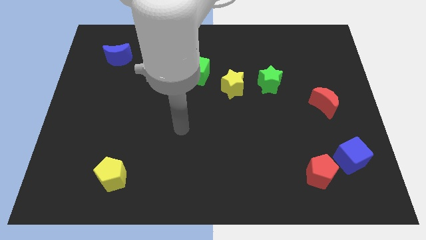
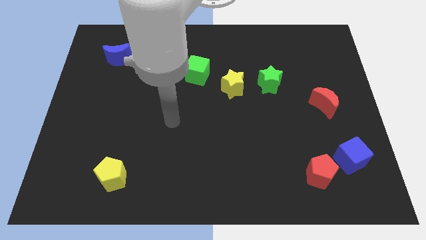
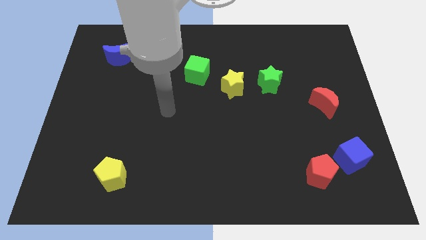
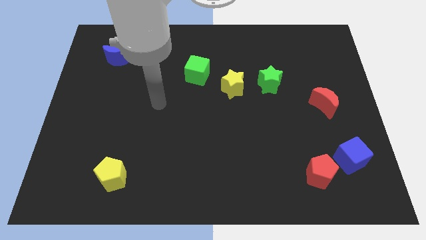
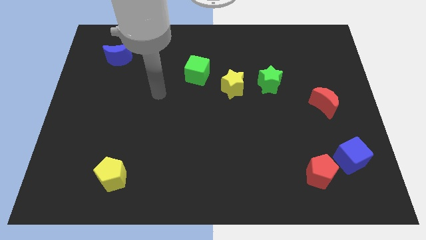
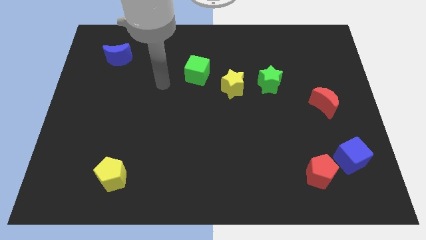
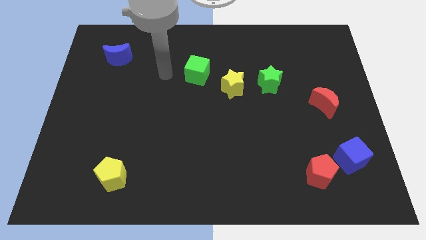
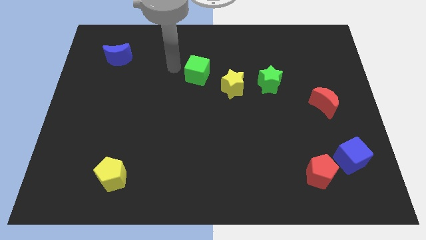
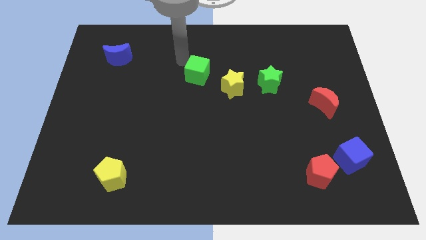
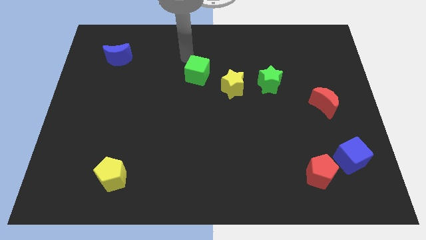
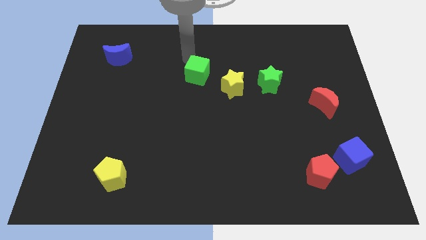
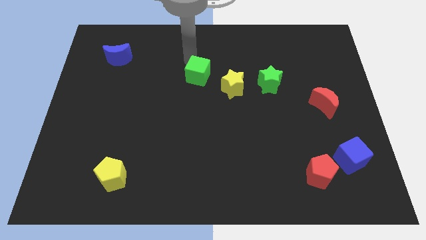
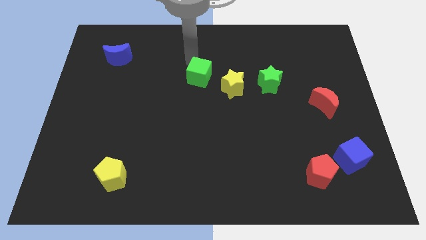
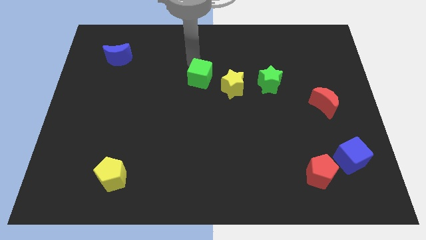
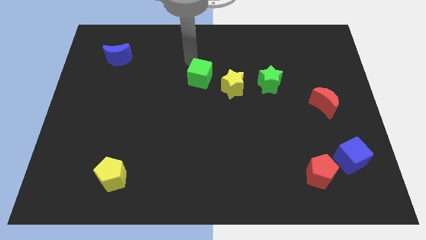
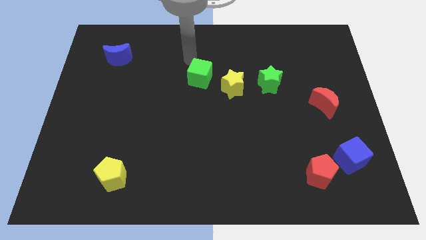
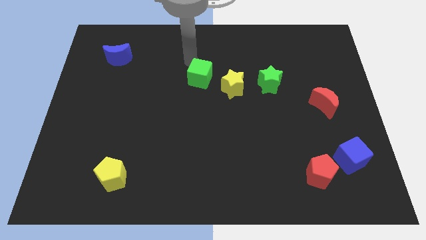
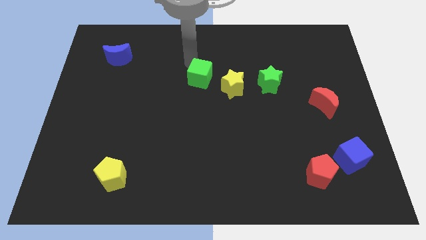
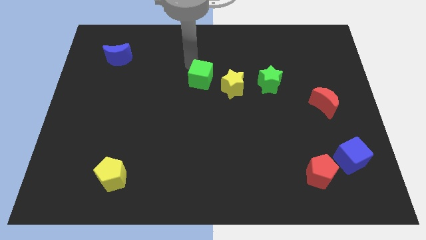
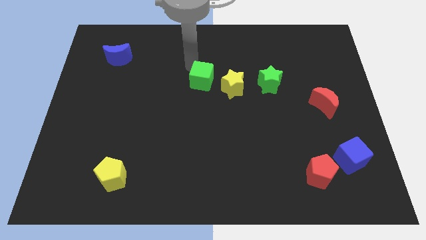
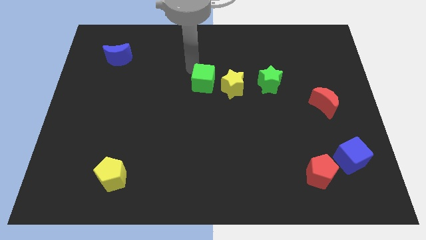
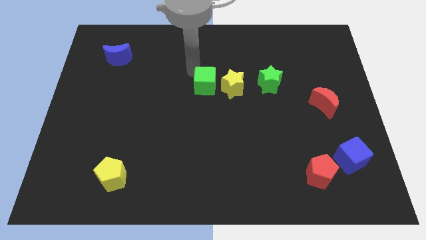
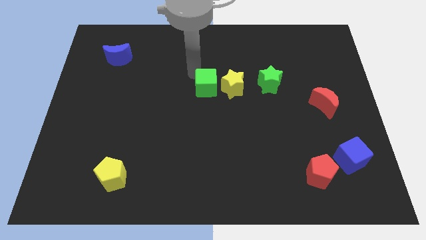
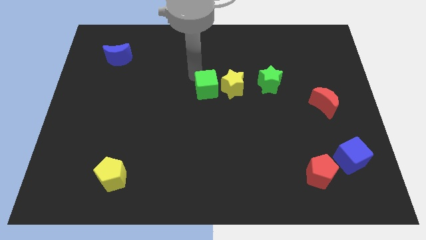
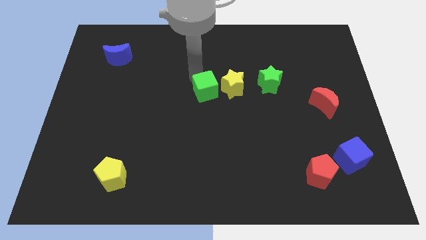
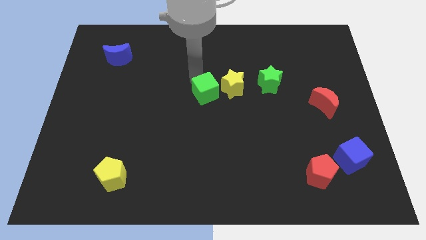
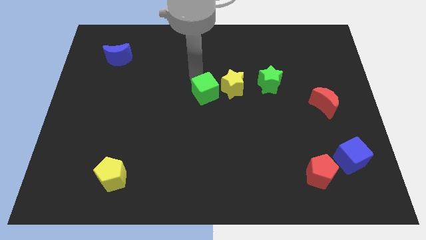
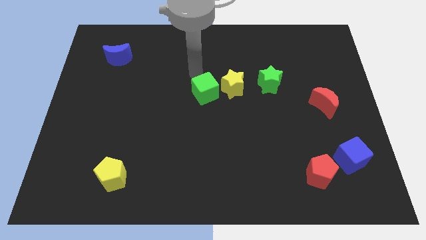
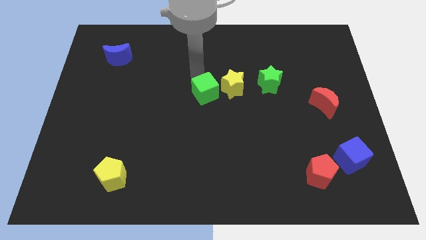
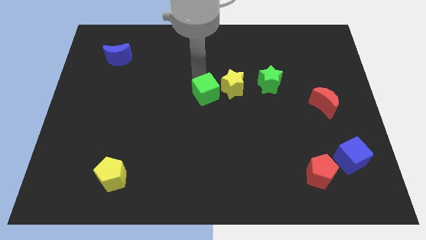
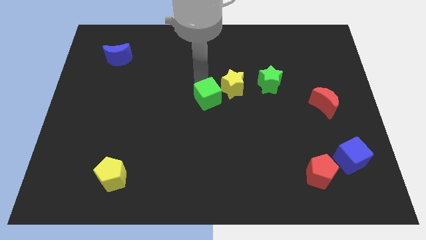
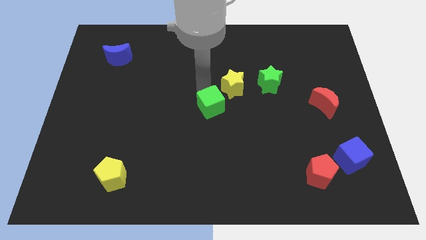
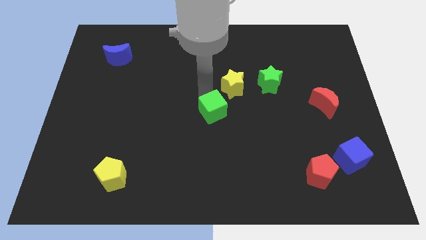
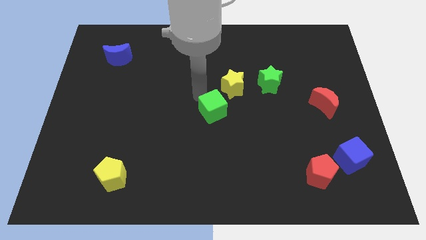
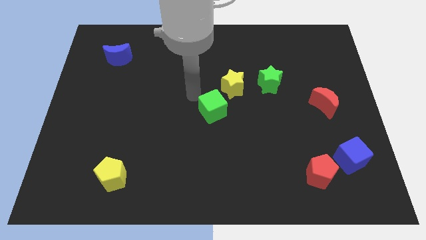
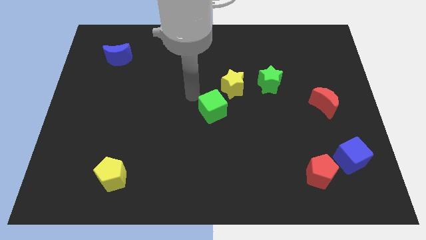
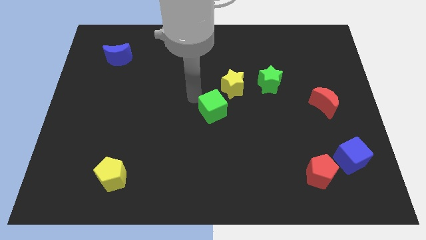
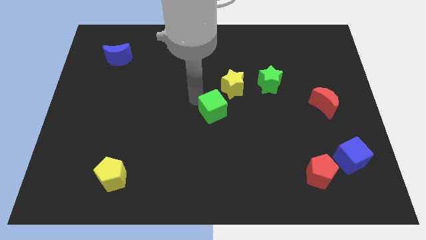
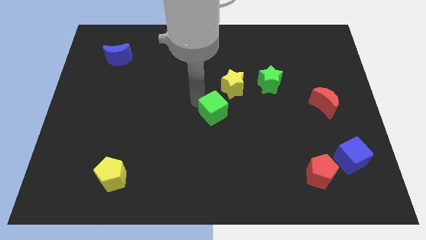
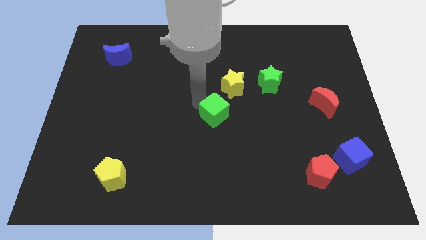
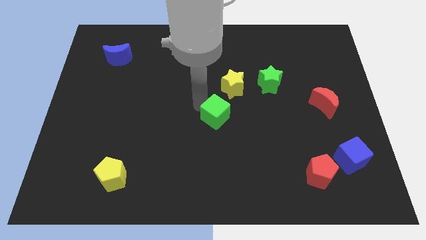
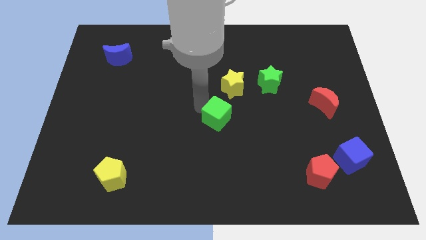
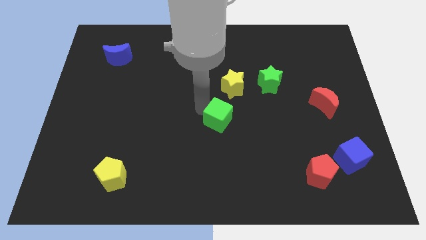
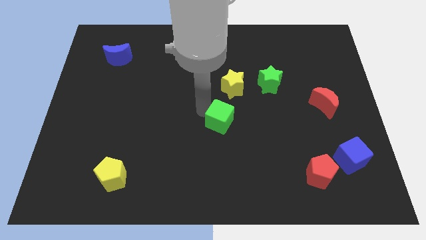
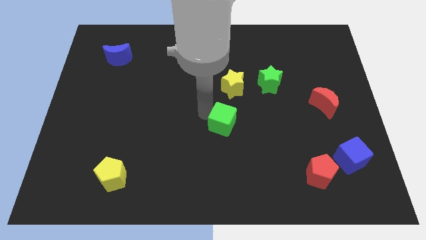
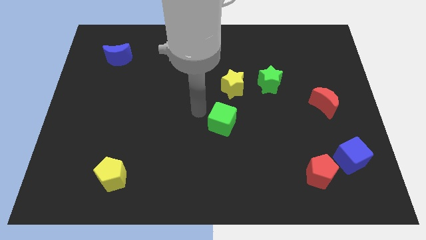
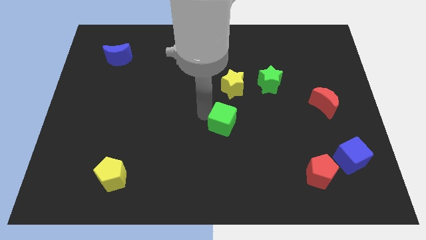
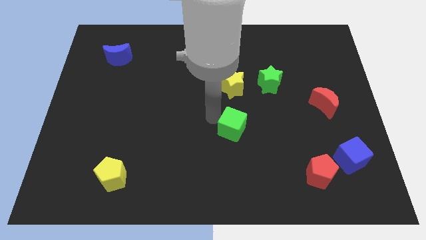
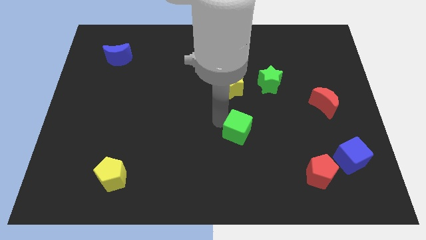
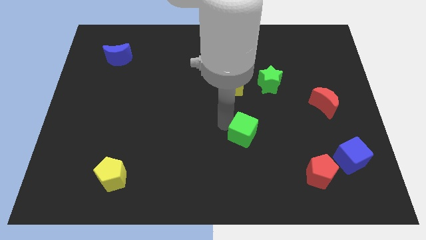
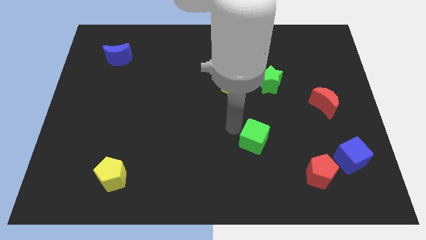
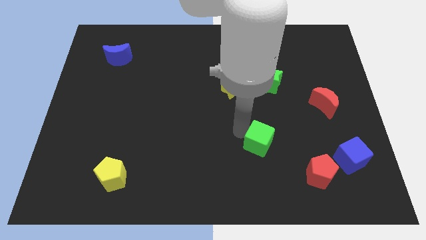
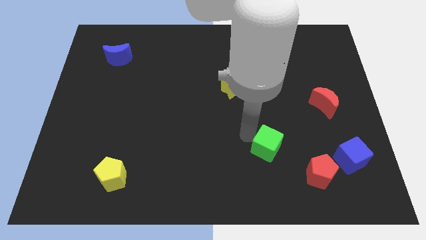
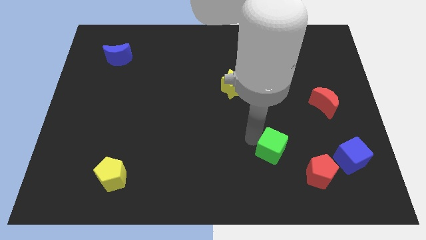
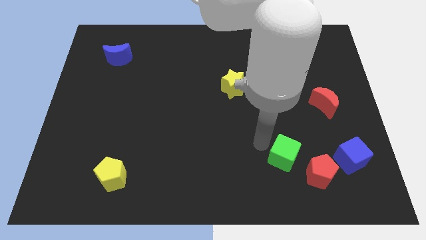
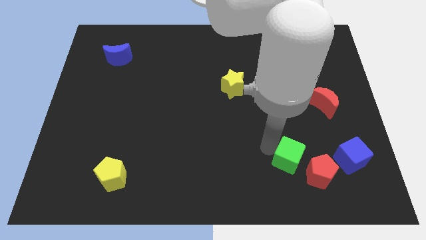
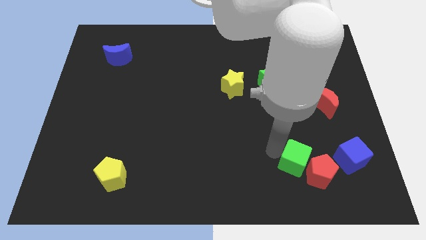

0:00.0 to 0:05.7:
put the green cube towards the red pentagon

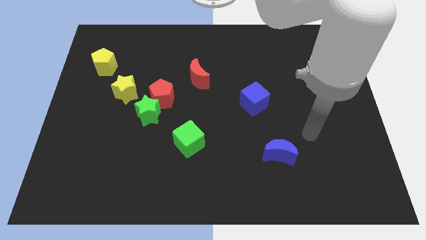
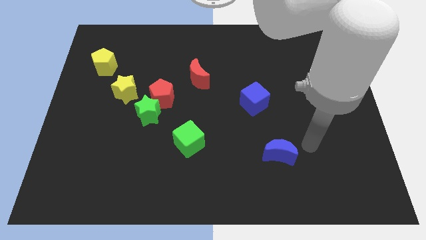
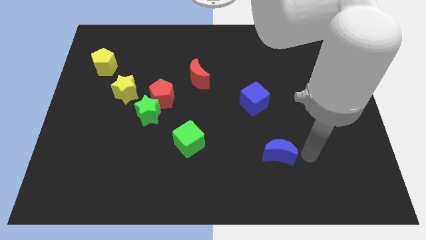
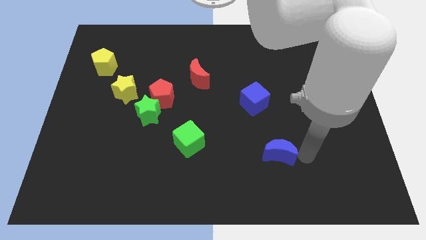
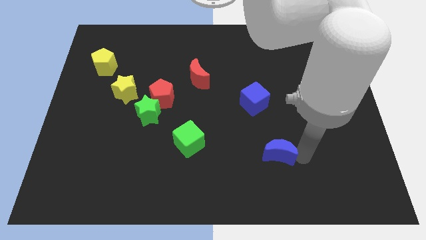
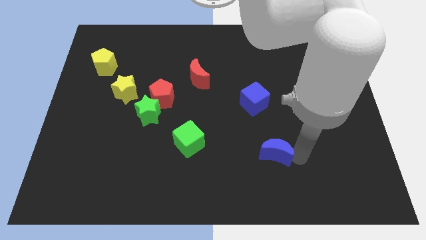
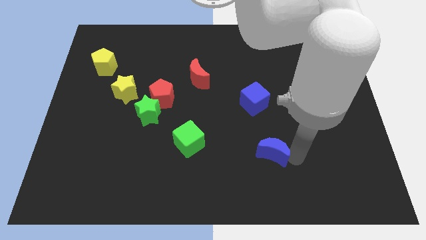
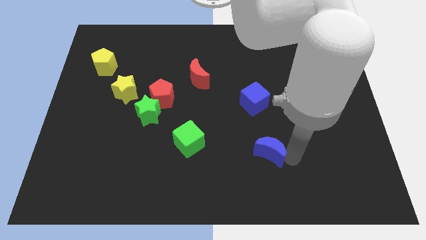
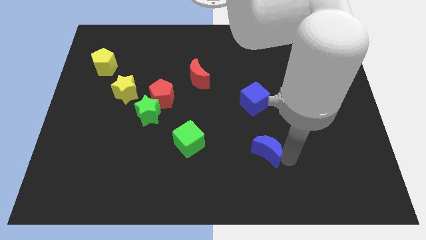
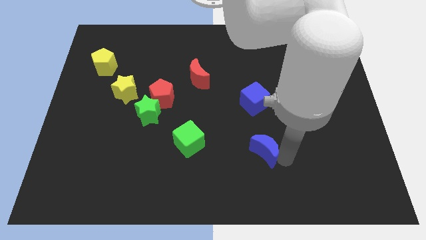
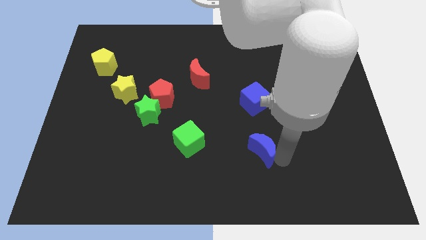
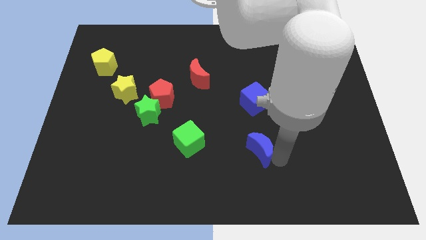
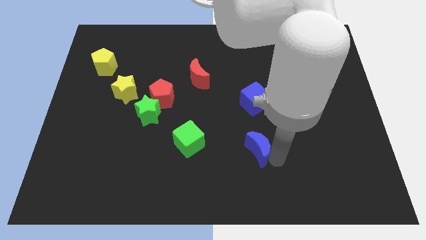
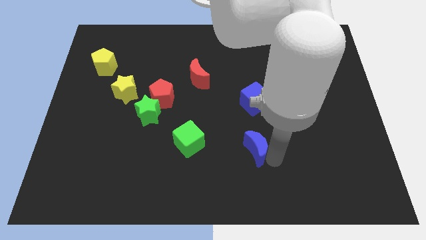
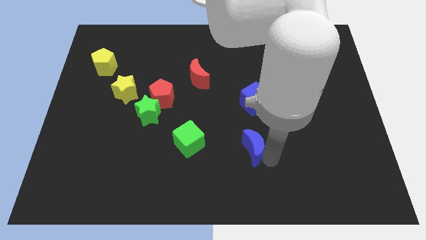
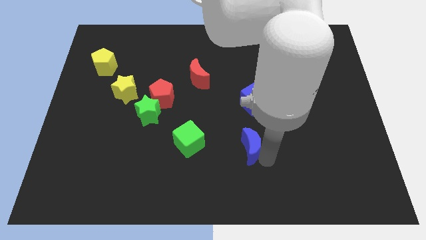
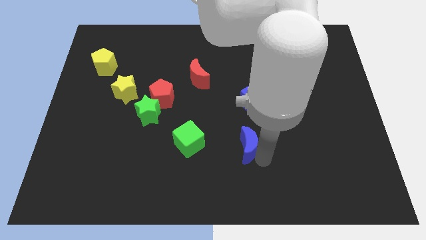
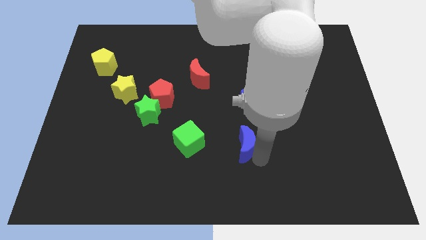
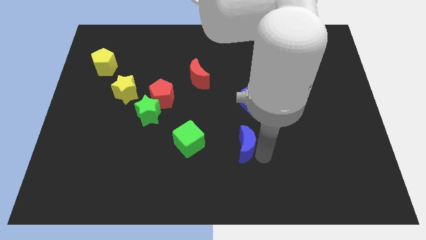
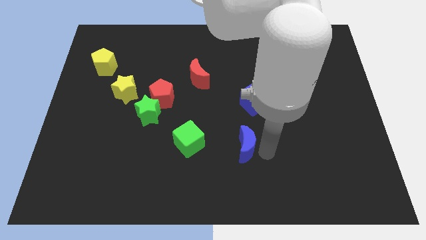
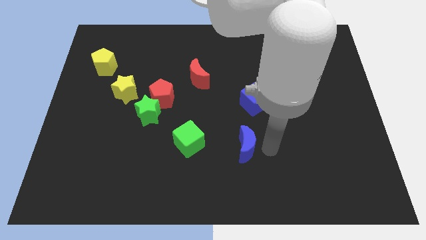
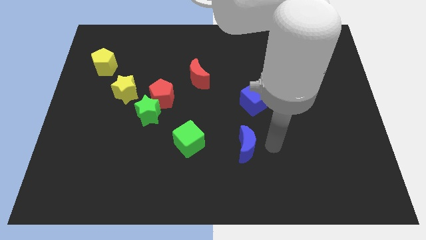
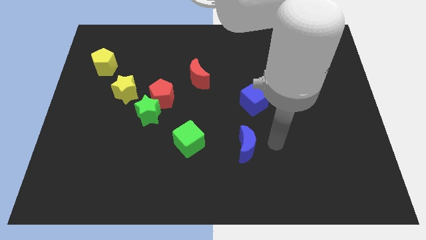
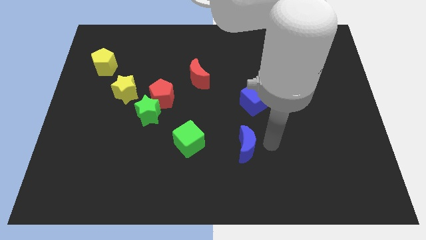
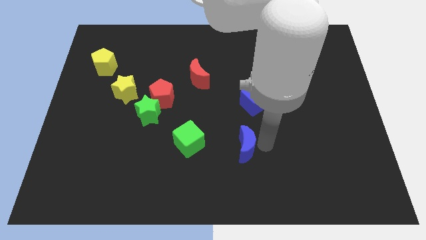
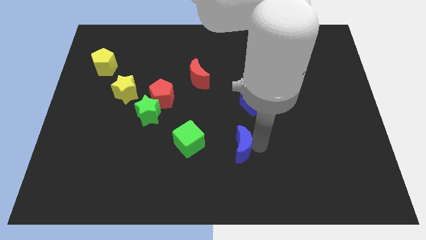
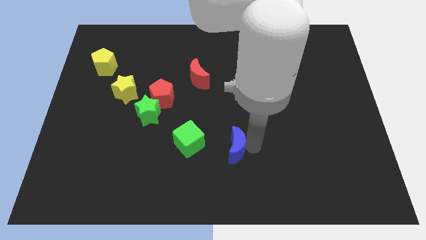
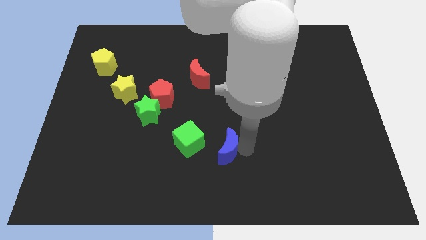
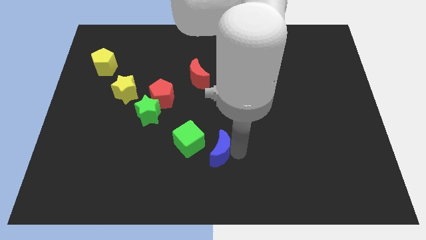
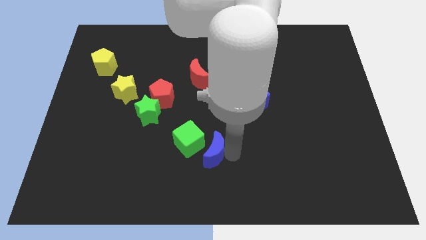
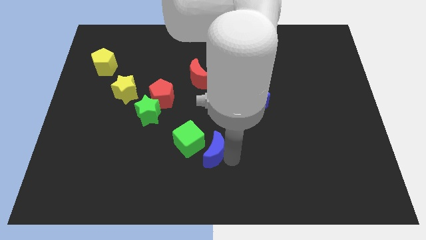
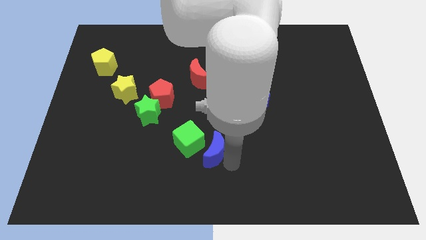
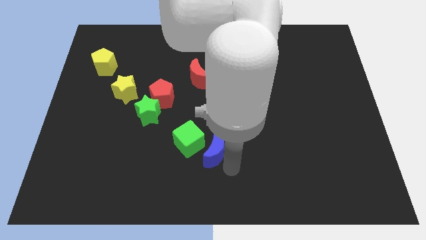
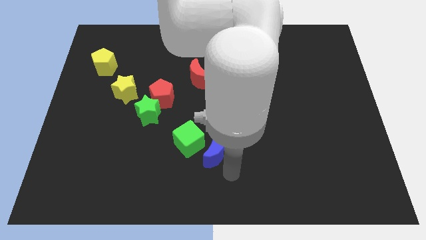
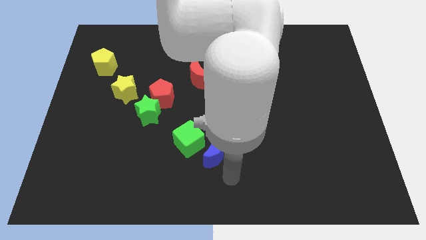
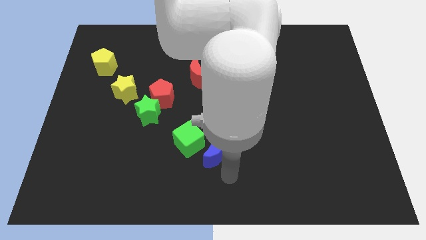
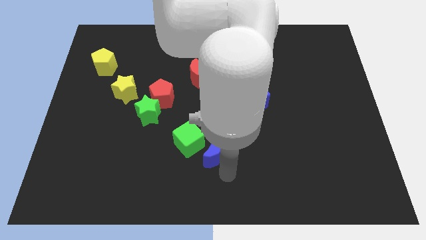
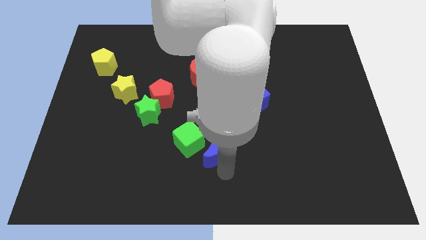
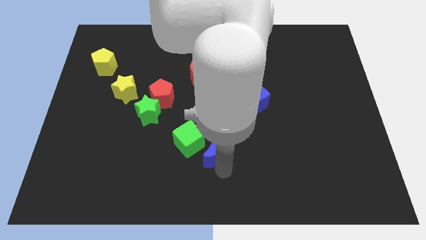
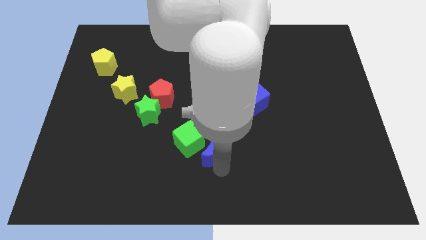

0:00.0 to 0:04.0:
push the blue moon close to the green cube
